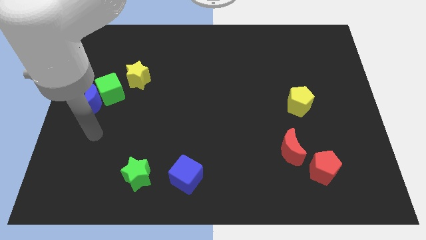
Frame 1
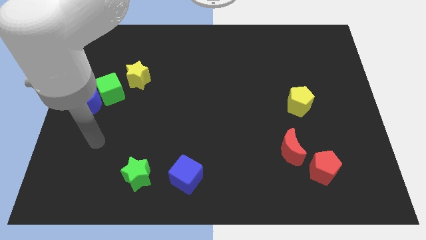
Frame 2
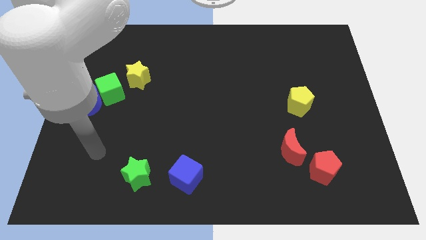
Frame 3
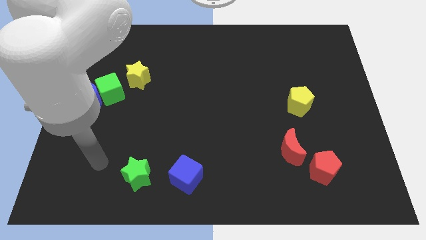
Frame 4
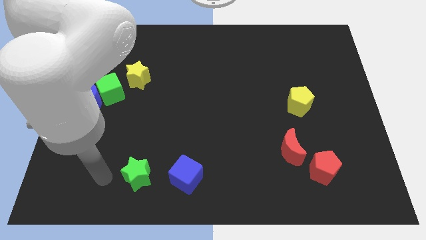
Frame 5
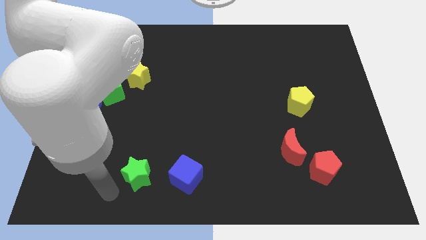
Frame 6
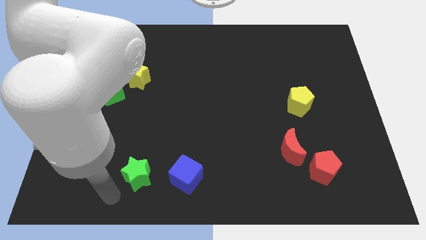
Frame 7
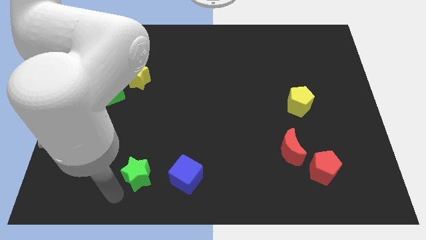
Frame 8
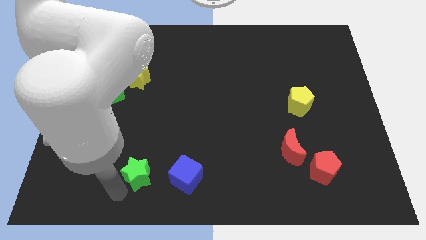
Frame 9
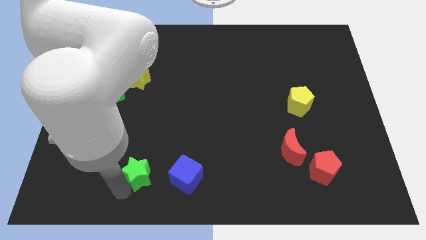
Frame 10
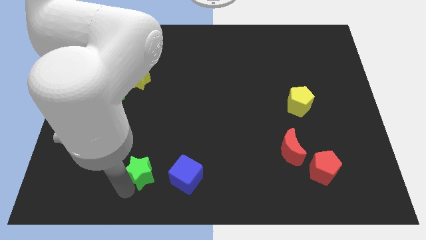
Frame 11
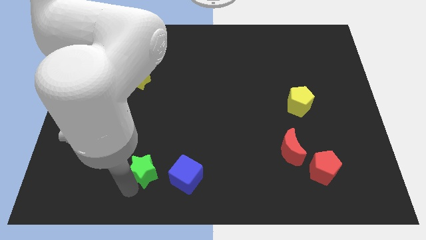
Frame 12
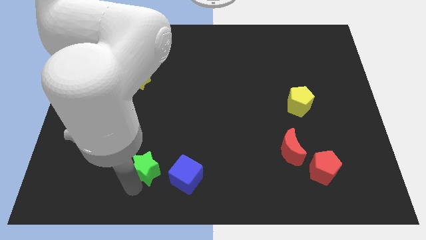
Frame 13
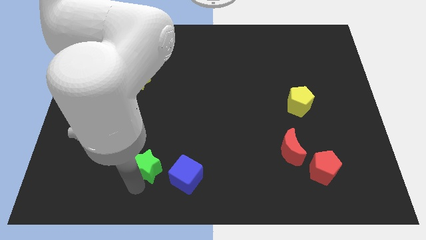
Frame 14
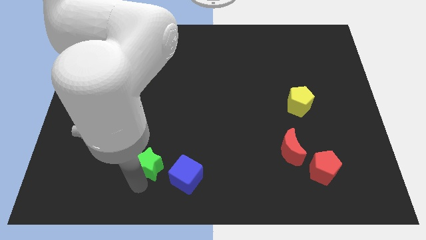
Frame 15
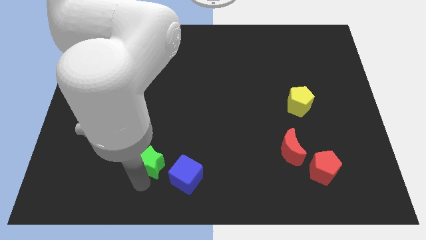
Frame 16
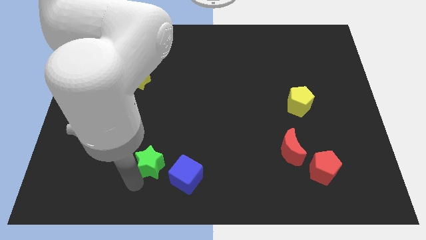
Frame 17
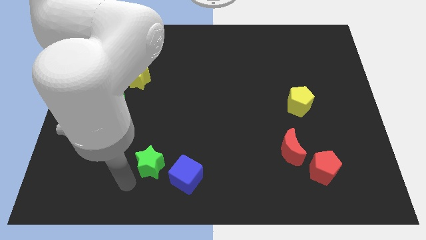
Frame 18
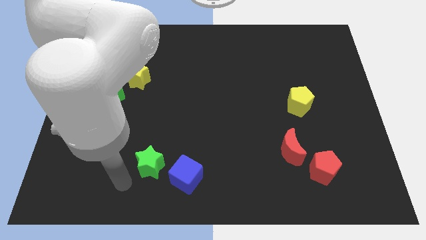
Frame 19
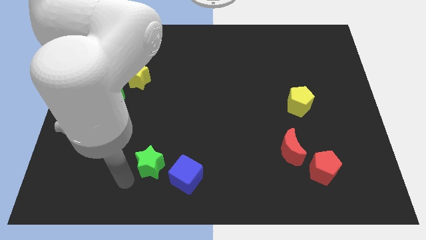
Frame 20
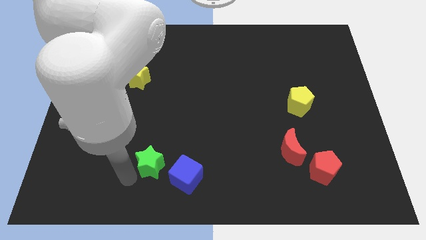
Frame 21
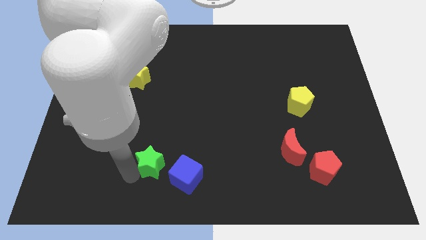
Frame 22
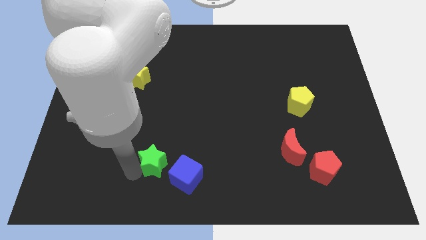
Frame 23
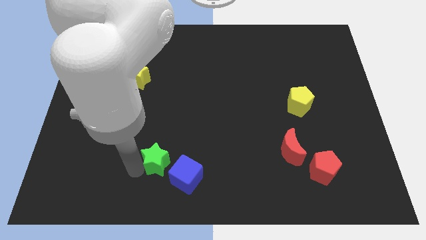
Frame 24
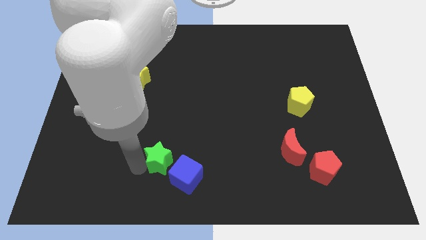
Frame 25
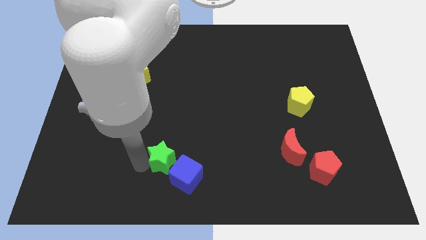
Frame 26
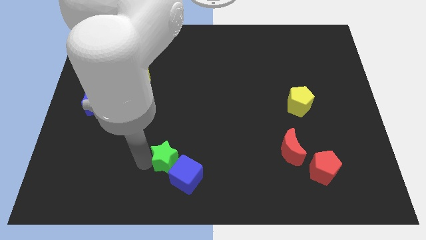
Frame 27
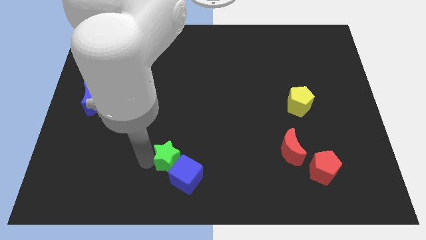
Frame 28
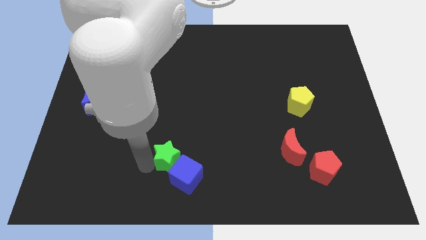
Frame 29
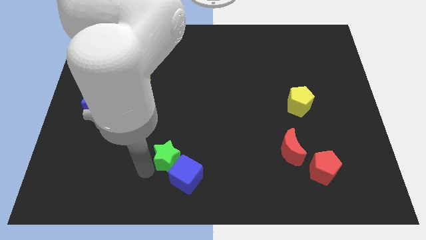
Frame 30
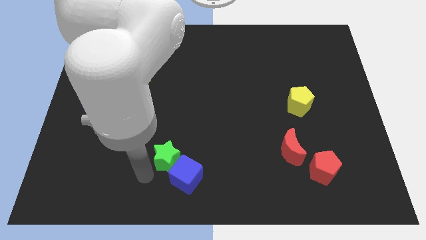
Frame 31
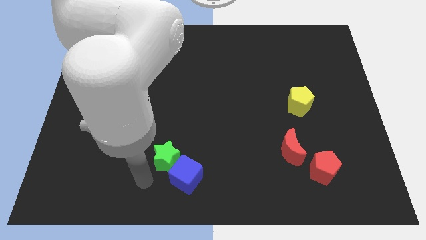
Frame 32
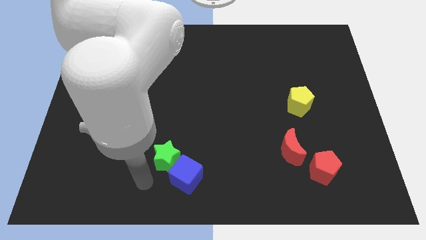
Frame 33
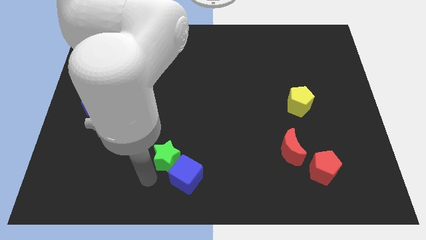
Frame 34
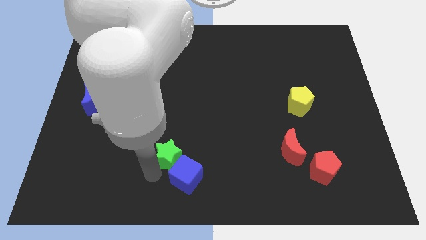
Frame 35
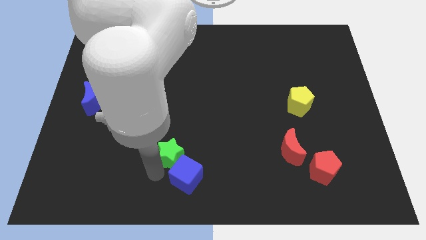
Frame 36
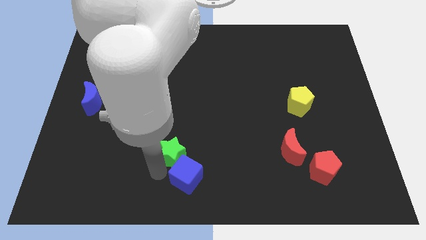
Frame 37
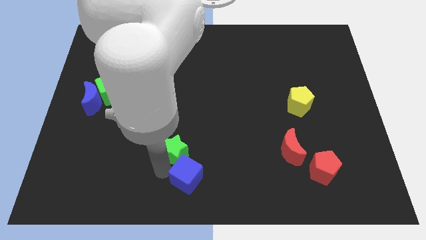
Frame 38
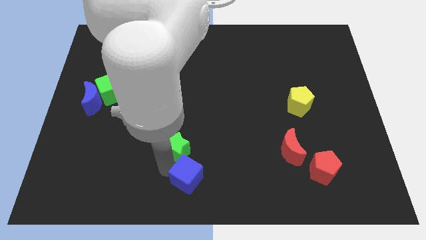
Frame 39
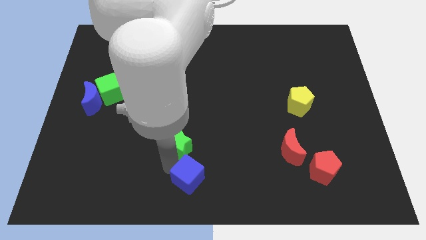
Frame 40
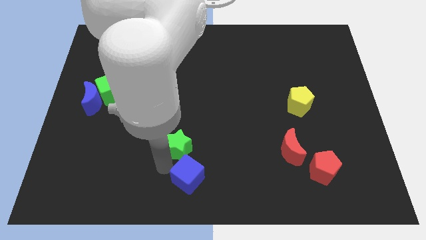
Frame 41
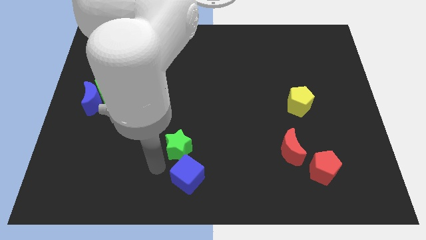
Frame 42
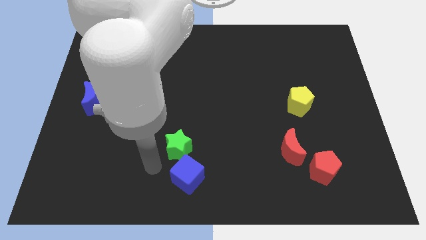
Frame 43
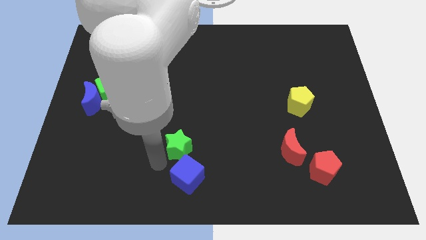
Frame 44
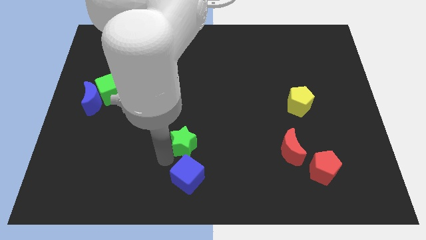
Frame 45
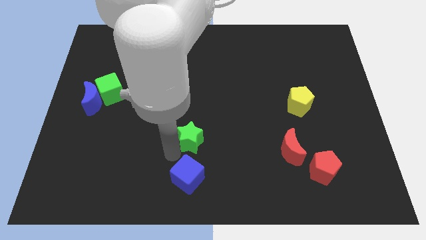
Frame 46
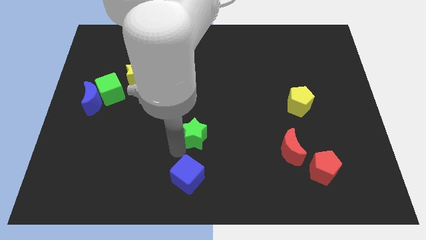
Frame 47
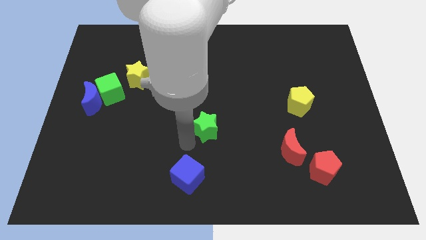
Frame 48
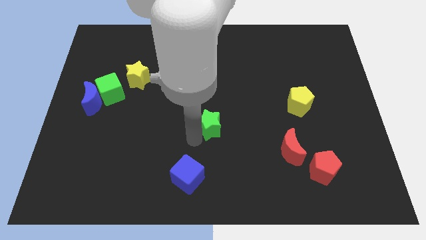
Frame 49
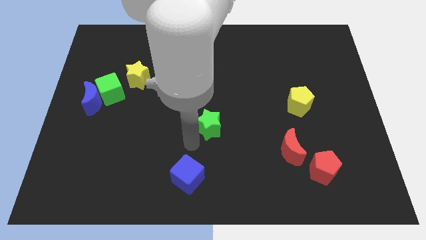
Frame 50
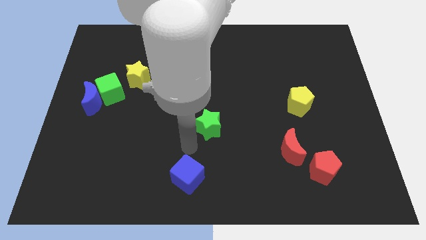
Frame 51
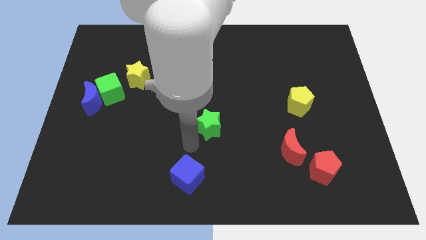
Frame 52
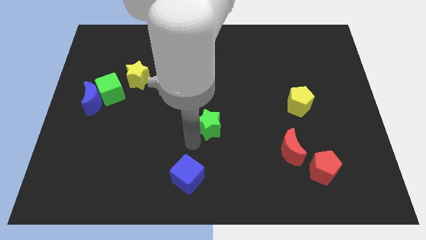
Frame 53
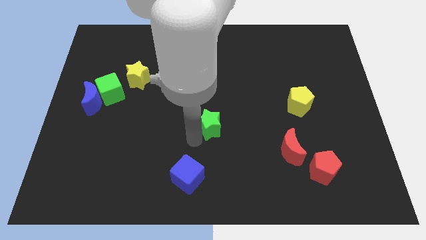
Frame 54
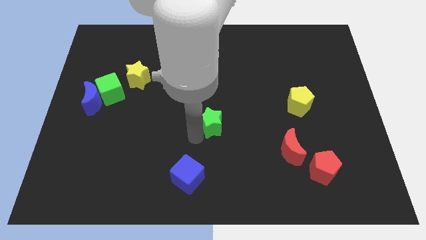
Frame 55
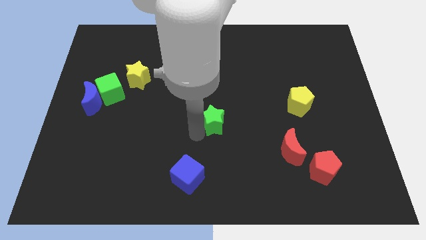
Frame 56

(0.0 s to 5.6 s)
push the green star upwards and then to the right

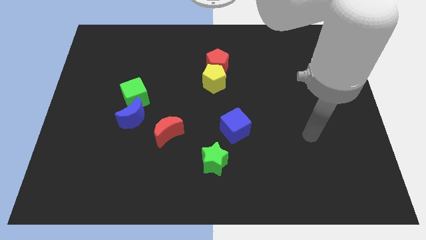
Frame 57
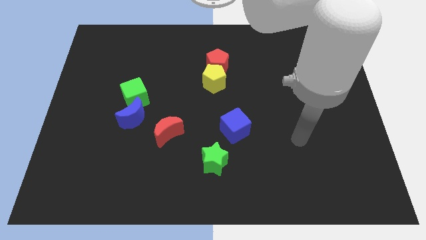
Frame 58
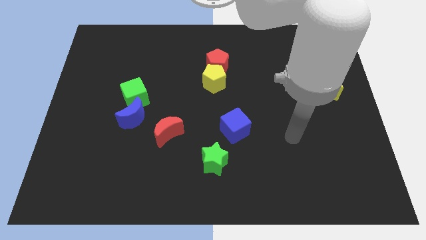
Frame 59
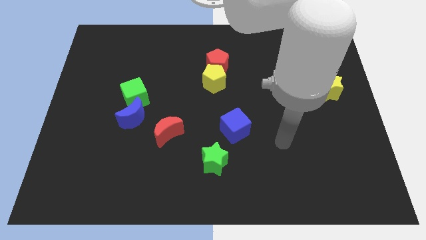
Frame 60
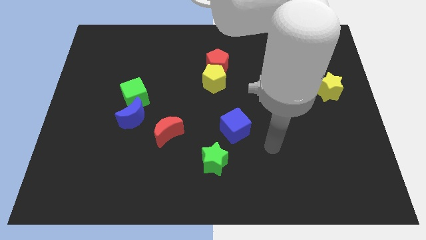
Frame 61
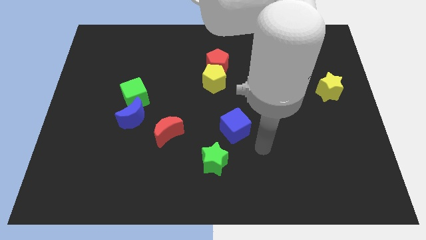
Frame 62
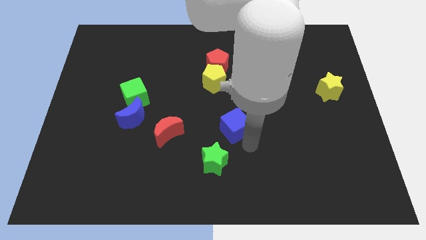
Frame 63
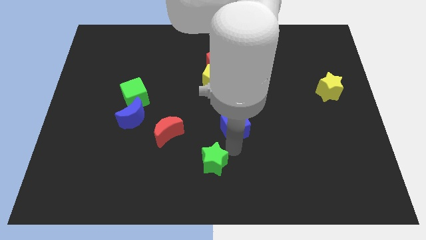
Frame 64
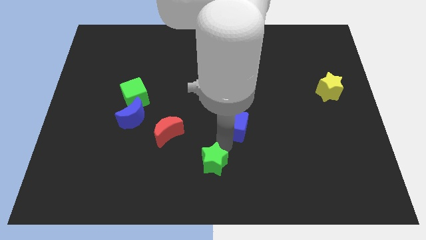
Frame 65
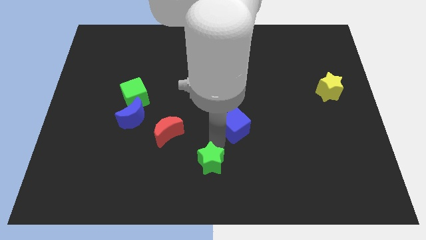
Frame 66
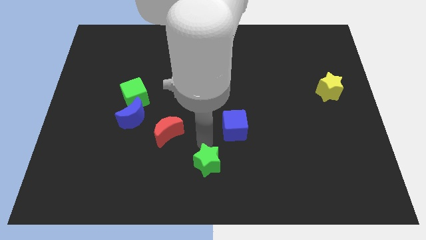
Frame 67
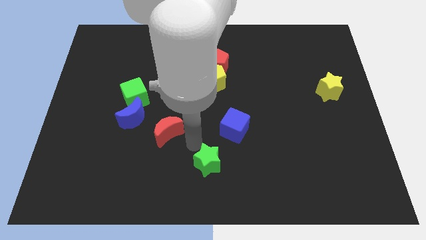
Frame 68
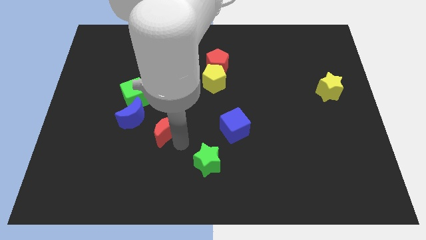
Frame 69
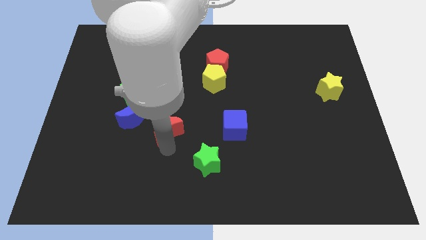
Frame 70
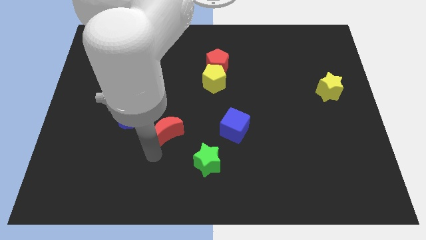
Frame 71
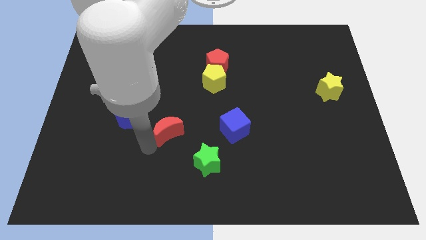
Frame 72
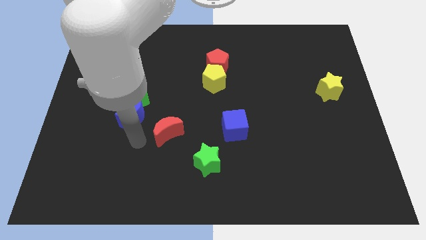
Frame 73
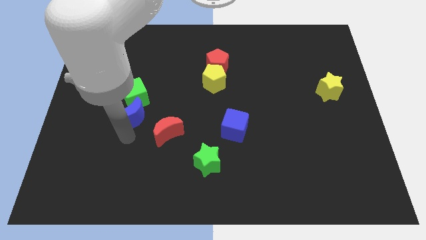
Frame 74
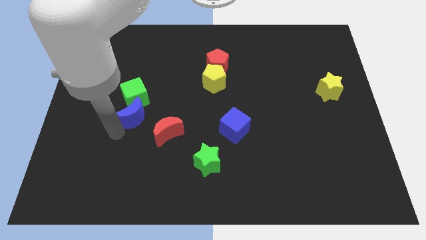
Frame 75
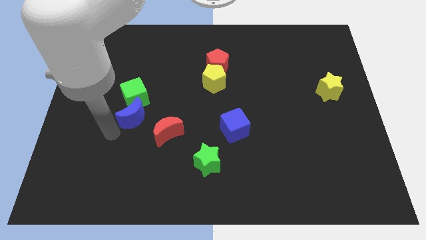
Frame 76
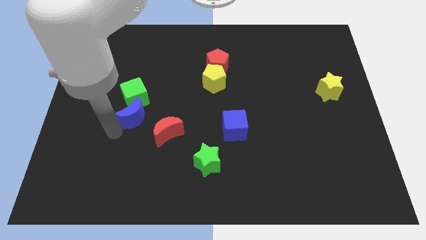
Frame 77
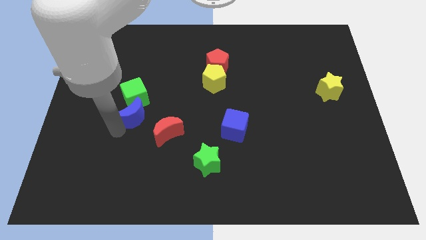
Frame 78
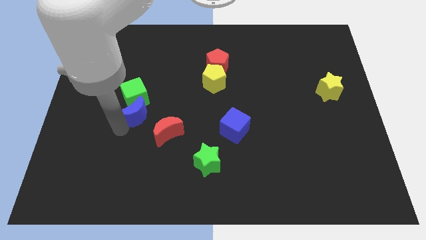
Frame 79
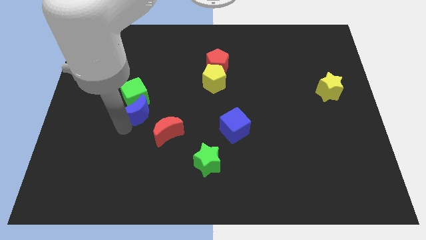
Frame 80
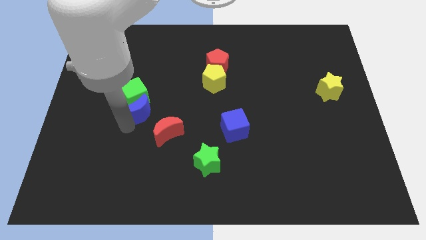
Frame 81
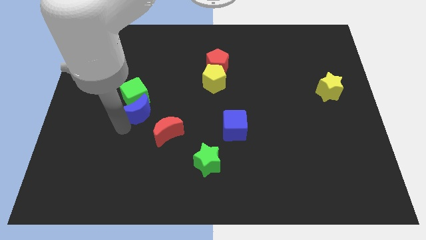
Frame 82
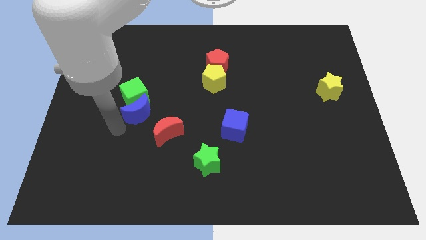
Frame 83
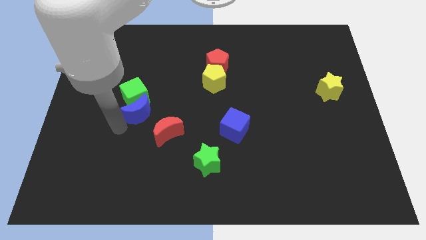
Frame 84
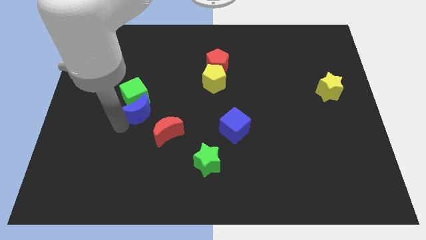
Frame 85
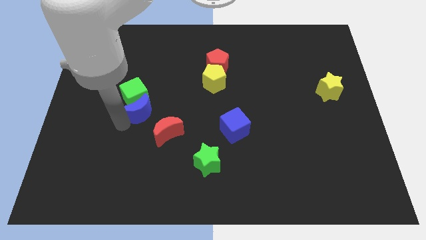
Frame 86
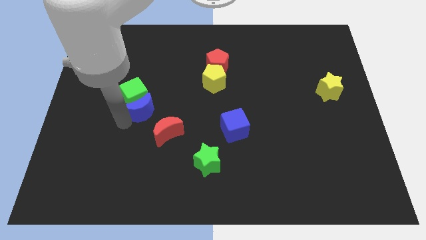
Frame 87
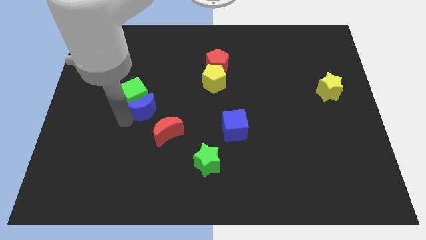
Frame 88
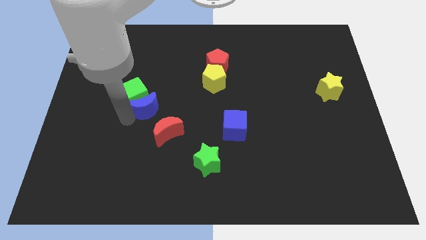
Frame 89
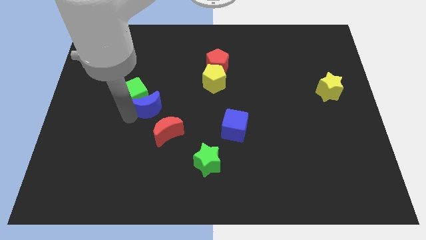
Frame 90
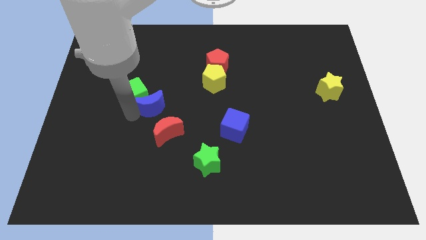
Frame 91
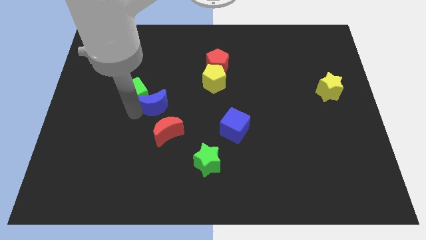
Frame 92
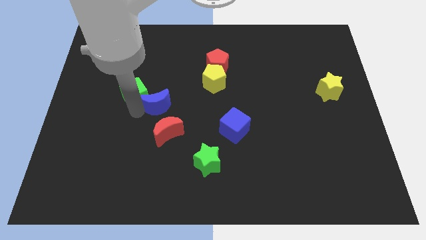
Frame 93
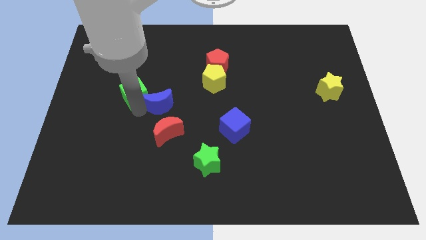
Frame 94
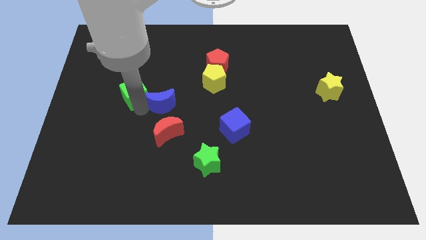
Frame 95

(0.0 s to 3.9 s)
slightly push the blue moon up and then to the right
